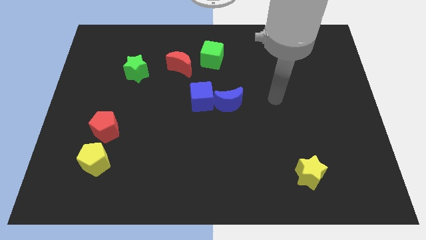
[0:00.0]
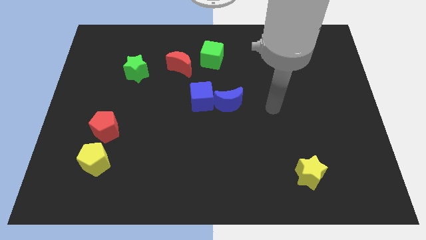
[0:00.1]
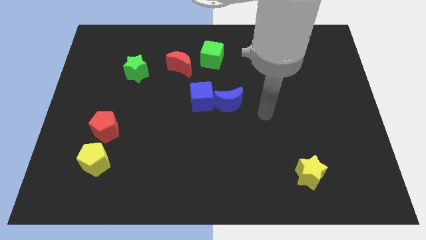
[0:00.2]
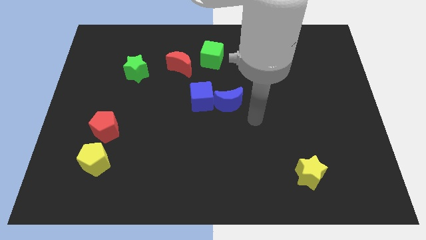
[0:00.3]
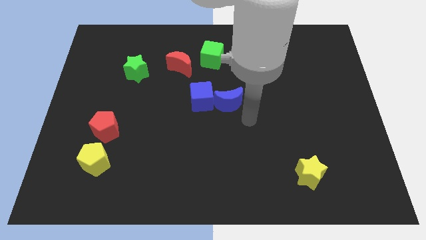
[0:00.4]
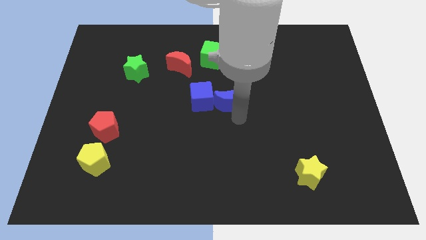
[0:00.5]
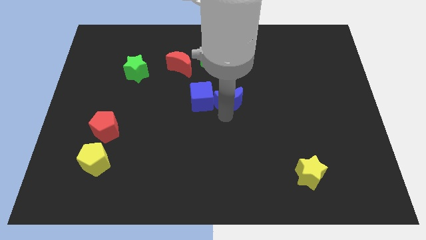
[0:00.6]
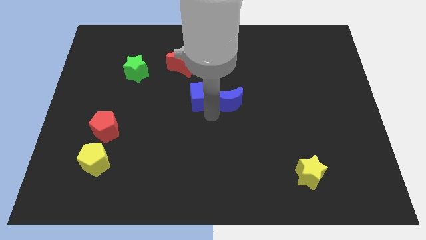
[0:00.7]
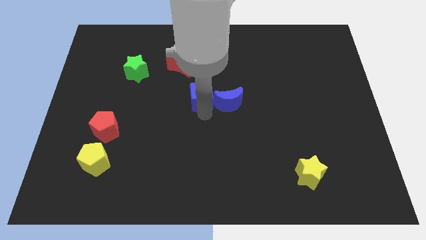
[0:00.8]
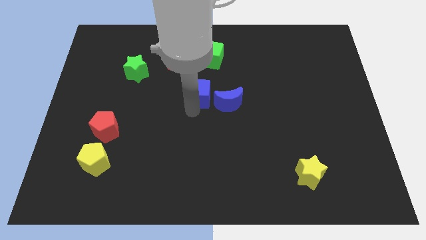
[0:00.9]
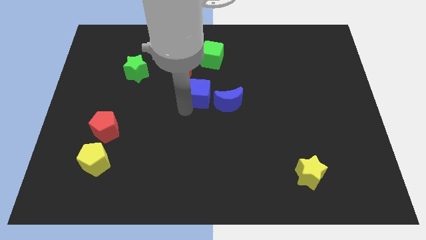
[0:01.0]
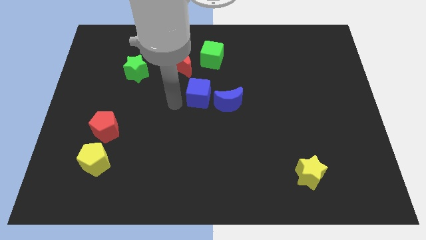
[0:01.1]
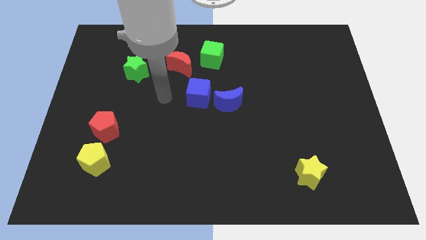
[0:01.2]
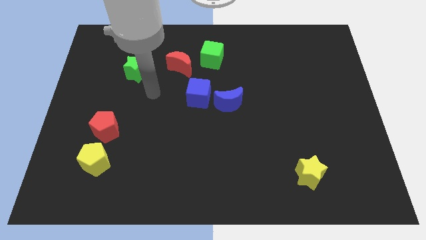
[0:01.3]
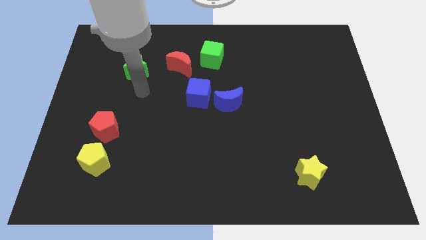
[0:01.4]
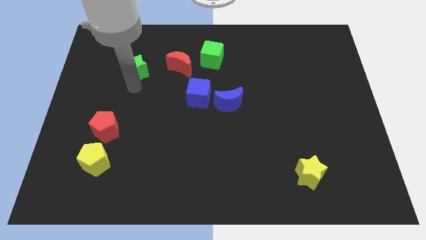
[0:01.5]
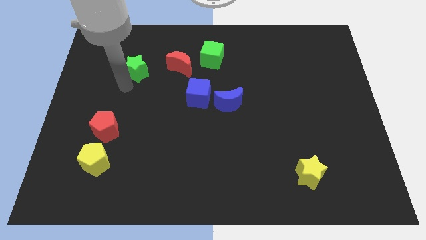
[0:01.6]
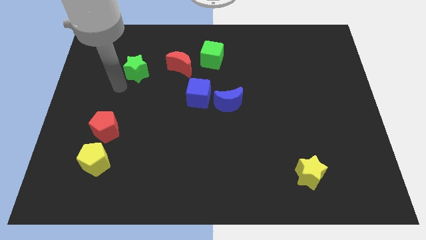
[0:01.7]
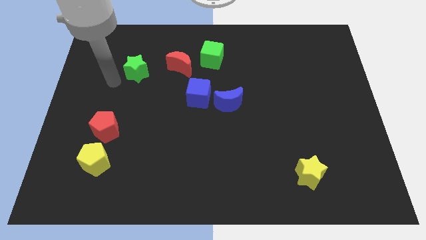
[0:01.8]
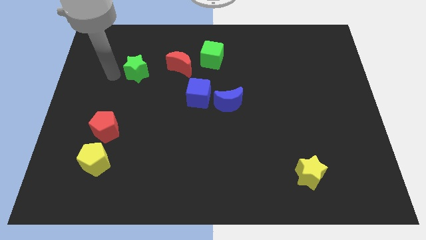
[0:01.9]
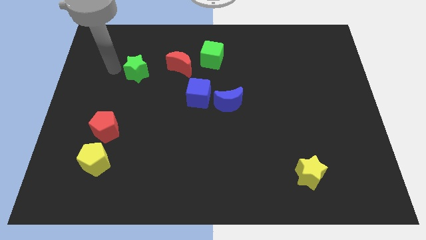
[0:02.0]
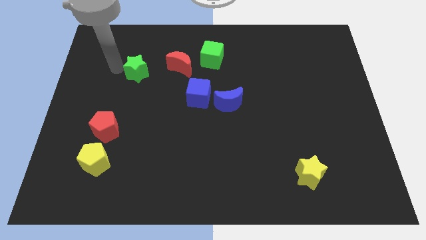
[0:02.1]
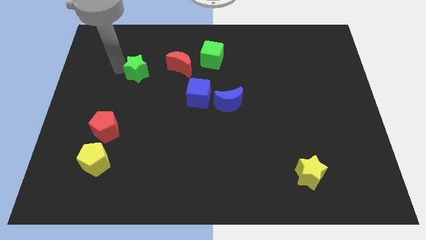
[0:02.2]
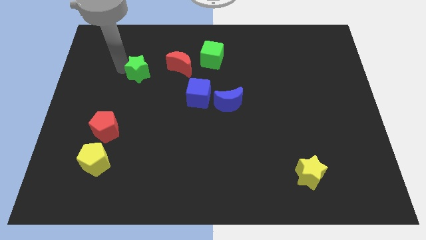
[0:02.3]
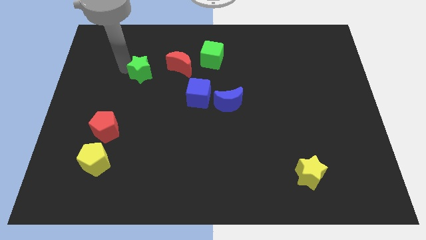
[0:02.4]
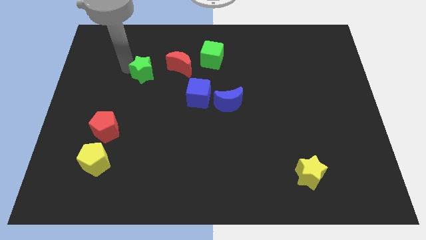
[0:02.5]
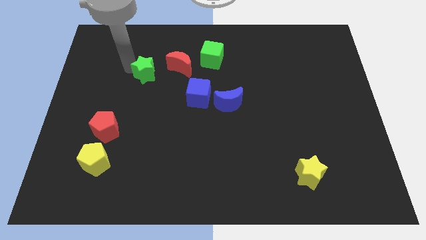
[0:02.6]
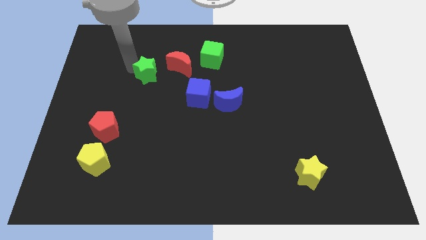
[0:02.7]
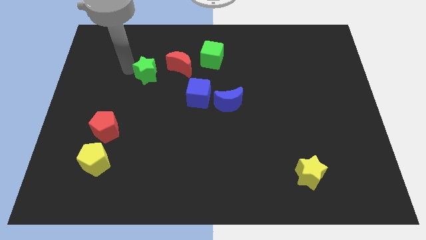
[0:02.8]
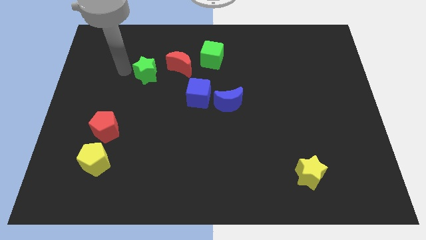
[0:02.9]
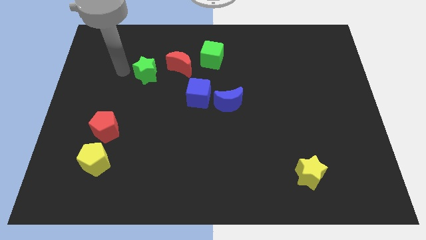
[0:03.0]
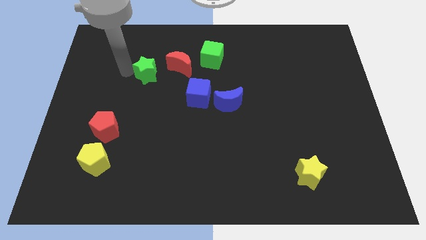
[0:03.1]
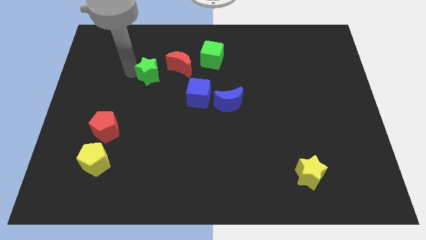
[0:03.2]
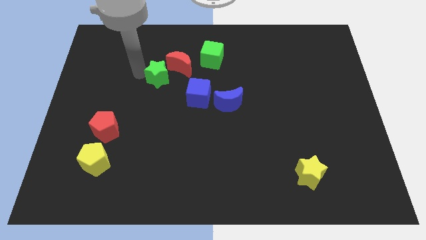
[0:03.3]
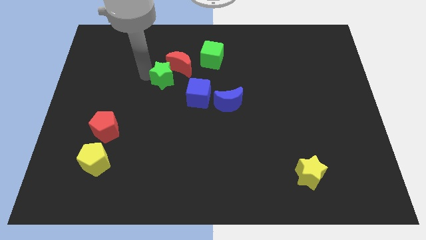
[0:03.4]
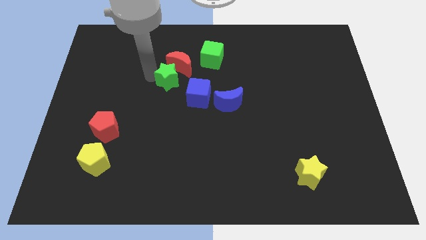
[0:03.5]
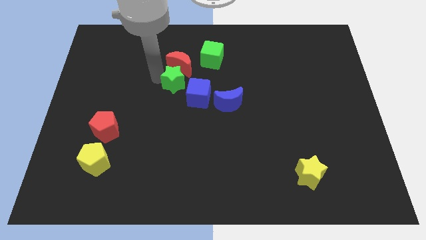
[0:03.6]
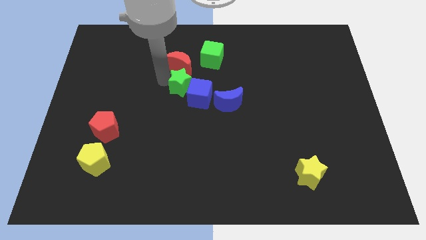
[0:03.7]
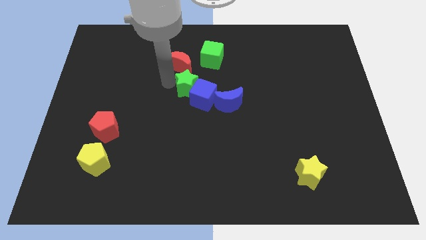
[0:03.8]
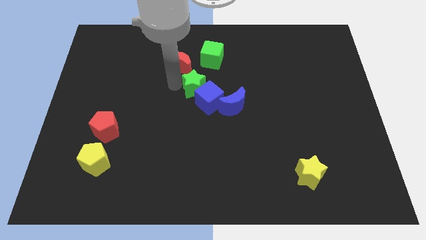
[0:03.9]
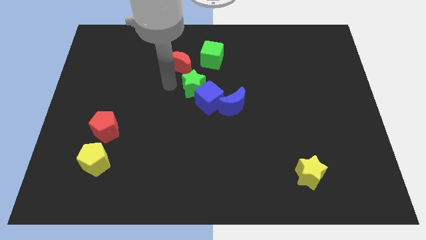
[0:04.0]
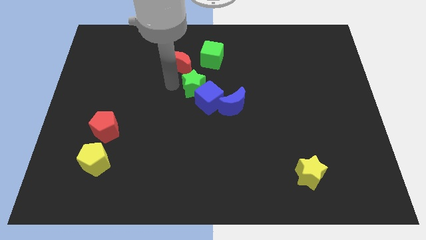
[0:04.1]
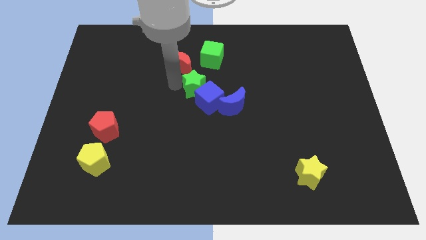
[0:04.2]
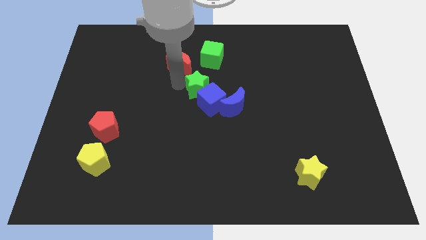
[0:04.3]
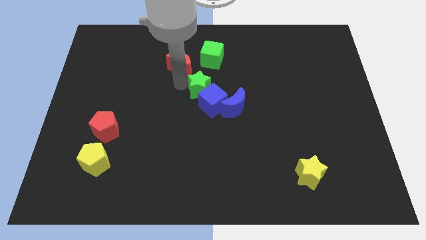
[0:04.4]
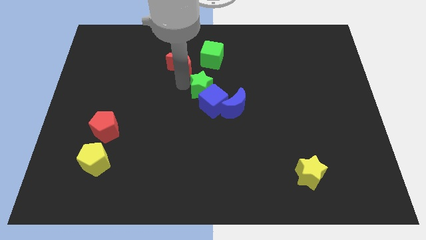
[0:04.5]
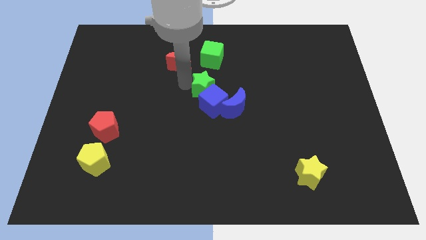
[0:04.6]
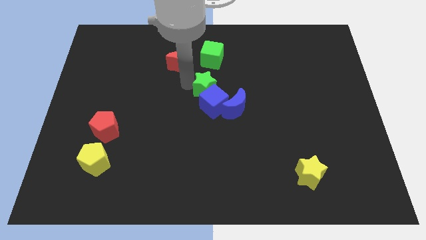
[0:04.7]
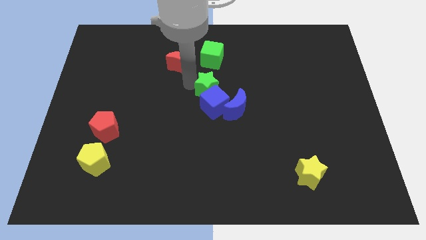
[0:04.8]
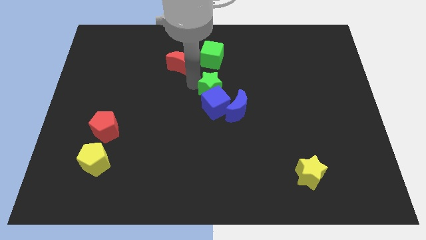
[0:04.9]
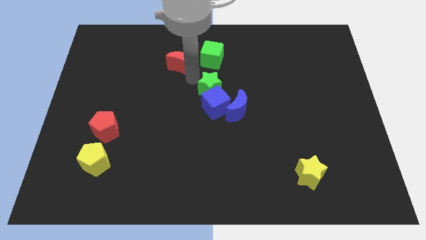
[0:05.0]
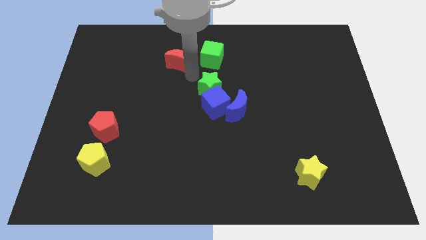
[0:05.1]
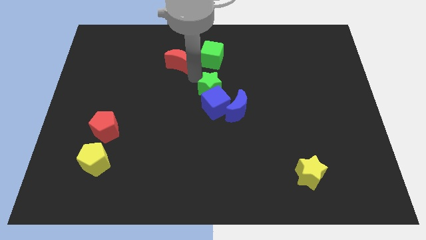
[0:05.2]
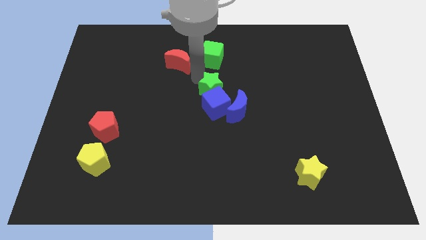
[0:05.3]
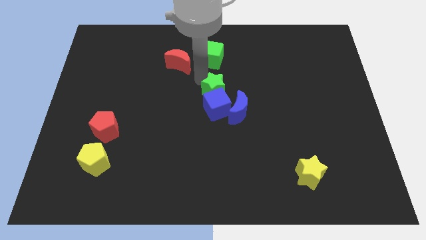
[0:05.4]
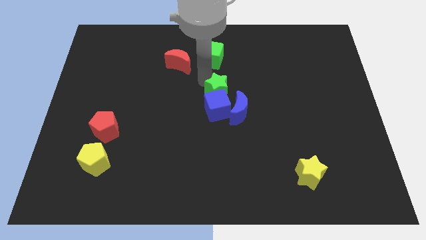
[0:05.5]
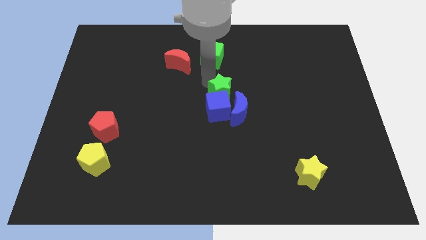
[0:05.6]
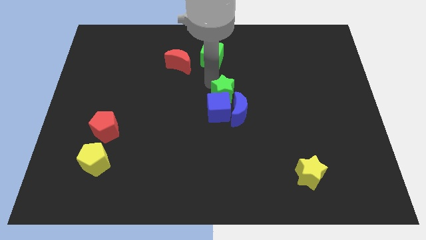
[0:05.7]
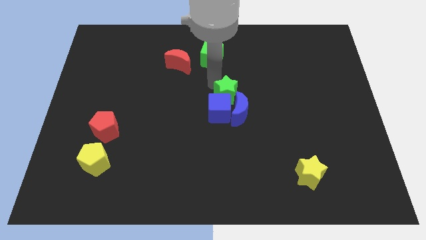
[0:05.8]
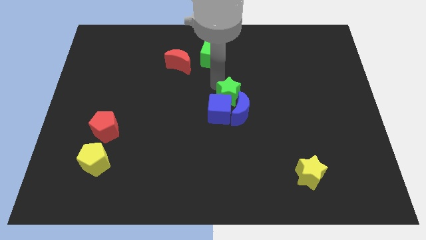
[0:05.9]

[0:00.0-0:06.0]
slide the green star towards the blue moon
